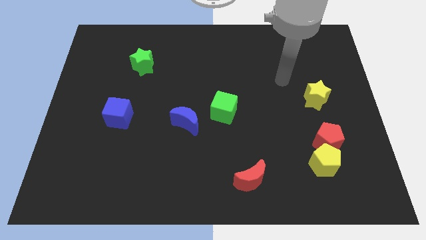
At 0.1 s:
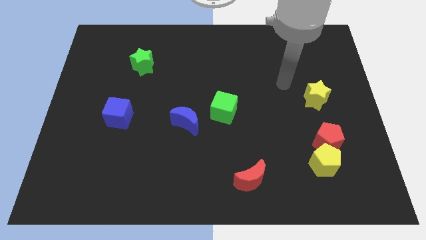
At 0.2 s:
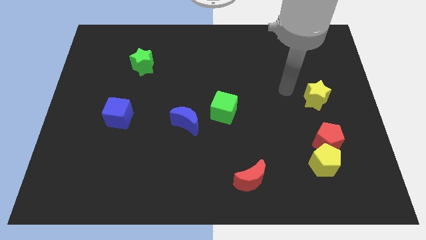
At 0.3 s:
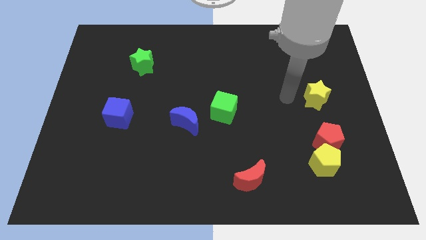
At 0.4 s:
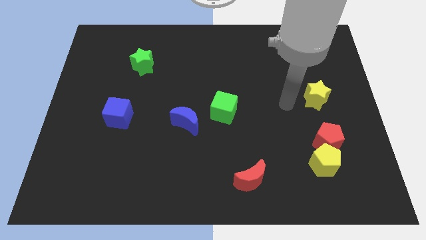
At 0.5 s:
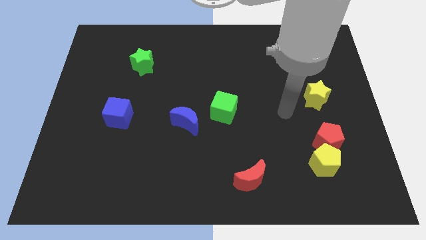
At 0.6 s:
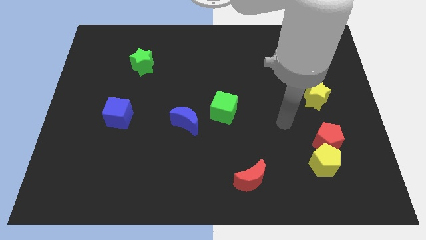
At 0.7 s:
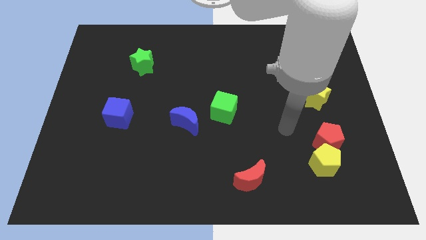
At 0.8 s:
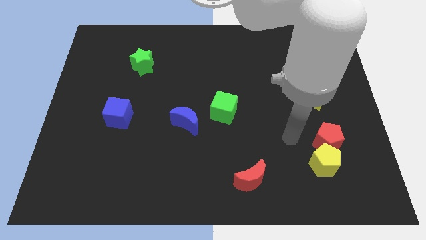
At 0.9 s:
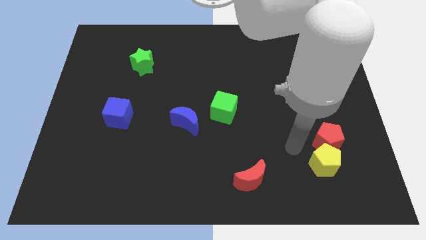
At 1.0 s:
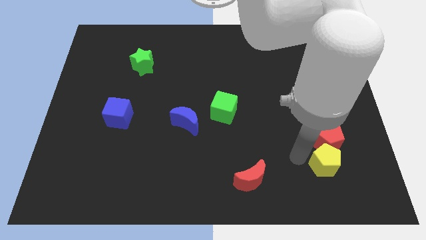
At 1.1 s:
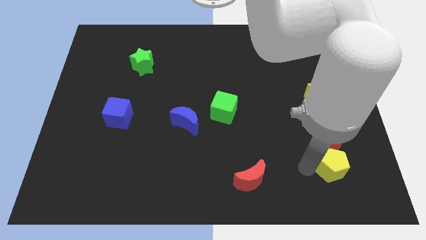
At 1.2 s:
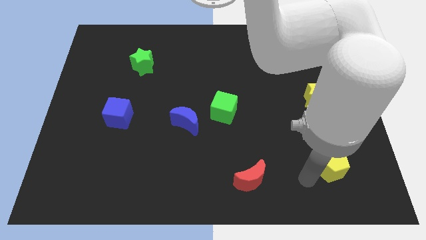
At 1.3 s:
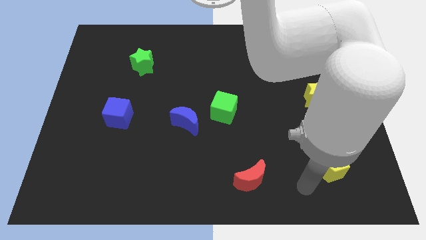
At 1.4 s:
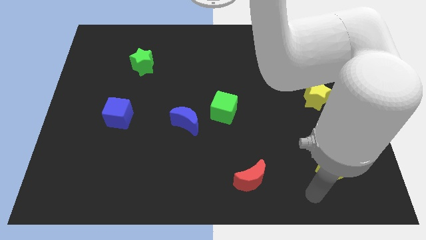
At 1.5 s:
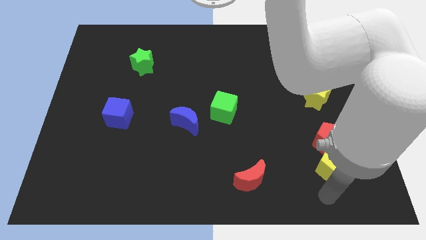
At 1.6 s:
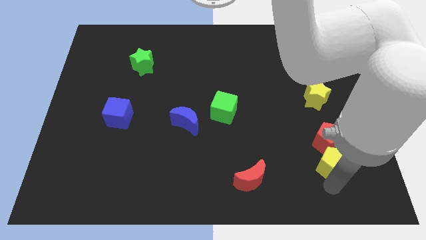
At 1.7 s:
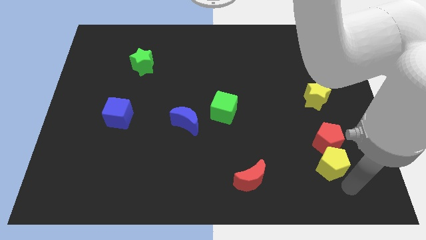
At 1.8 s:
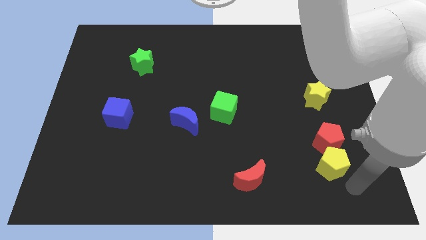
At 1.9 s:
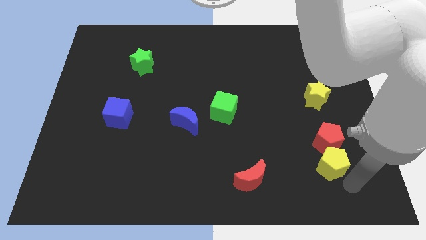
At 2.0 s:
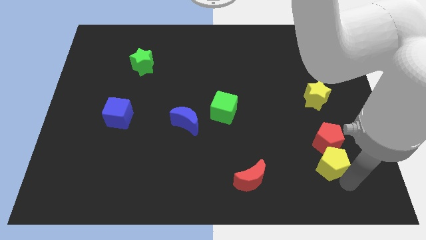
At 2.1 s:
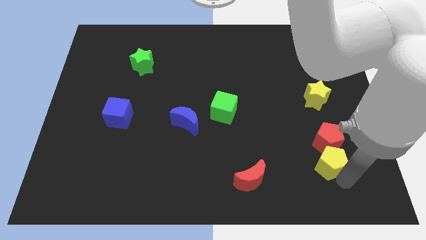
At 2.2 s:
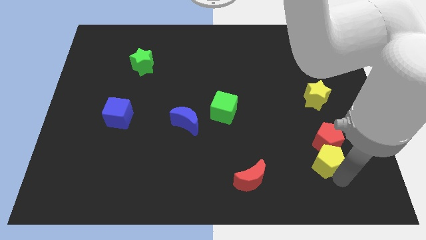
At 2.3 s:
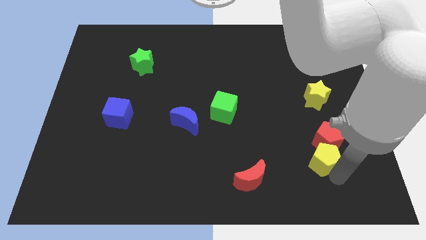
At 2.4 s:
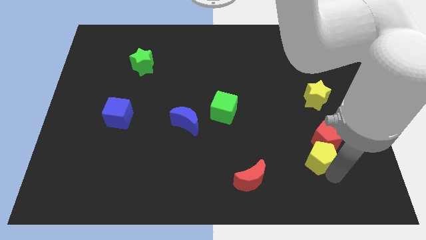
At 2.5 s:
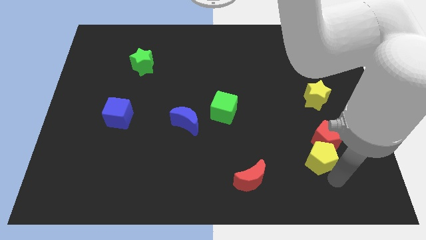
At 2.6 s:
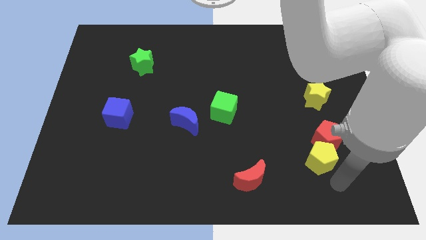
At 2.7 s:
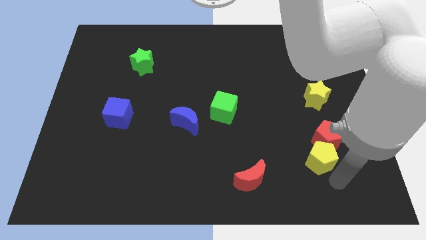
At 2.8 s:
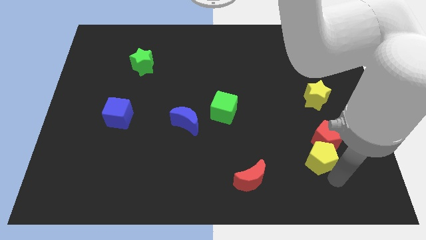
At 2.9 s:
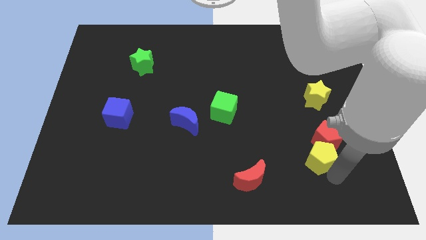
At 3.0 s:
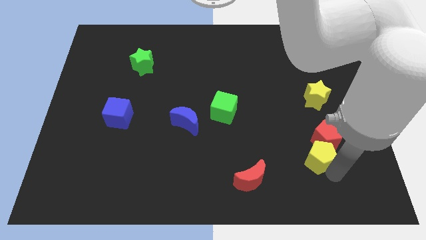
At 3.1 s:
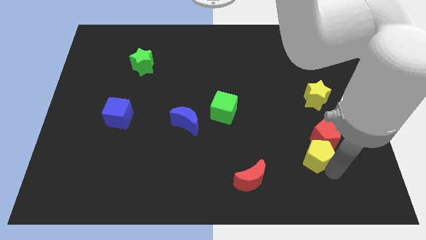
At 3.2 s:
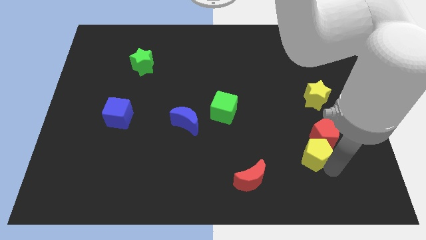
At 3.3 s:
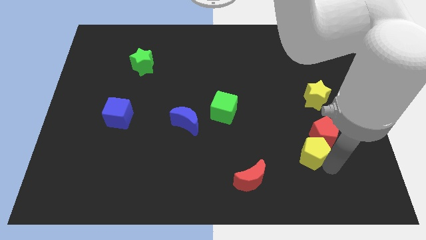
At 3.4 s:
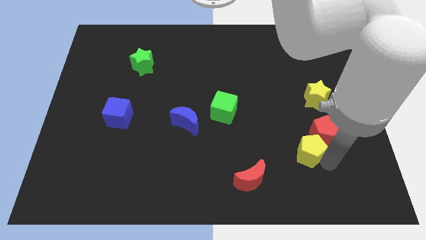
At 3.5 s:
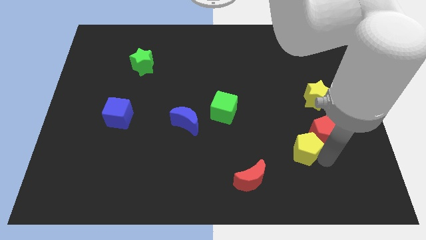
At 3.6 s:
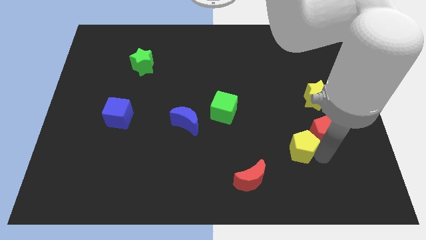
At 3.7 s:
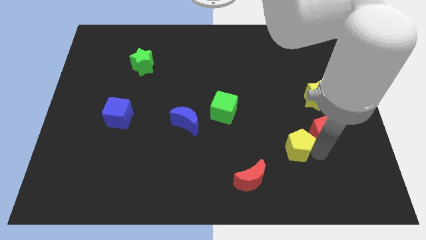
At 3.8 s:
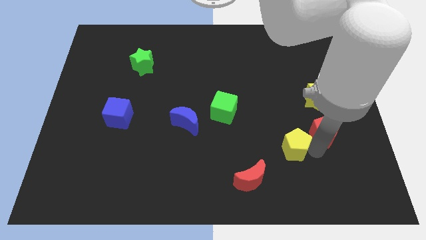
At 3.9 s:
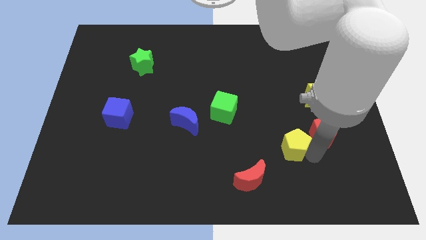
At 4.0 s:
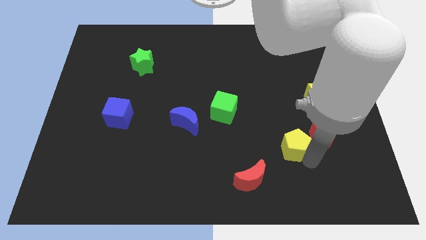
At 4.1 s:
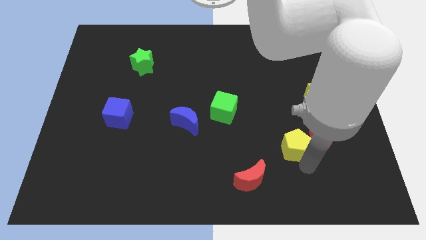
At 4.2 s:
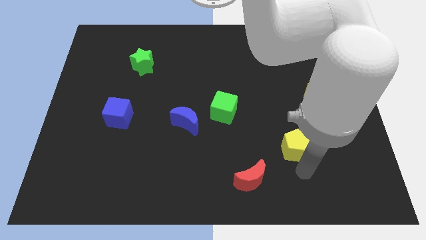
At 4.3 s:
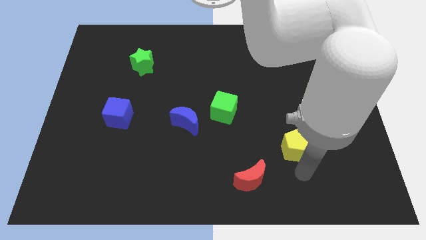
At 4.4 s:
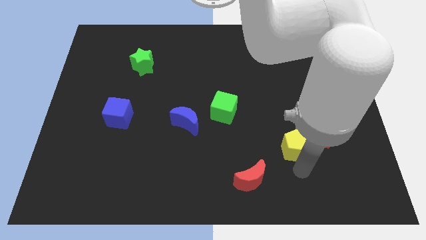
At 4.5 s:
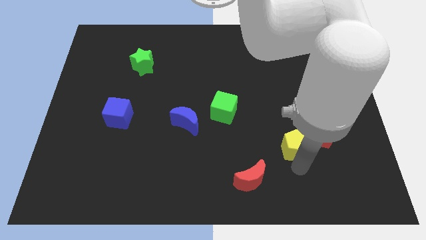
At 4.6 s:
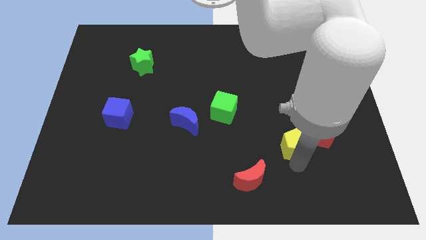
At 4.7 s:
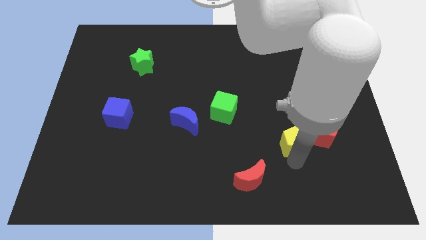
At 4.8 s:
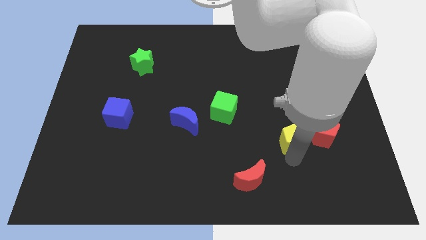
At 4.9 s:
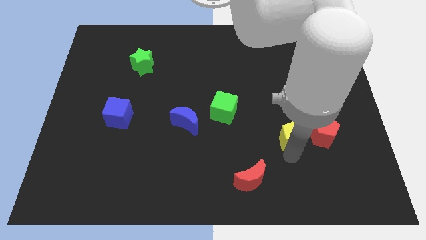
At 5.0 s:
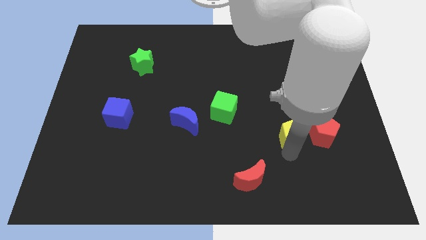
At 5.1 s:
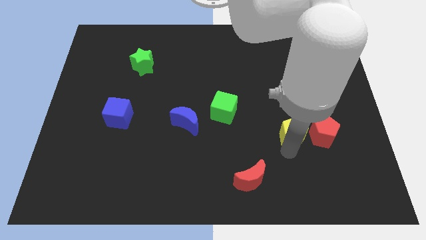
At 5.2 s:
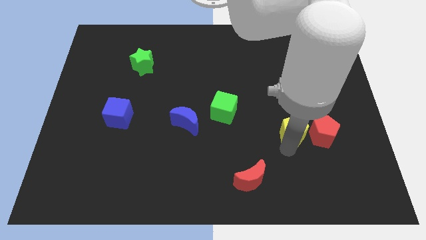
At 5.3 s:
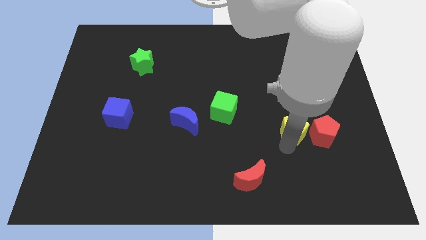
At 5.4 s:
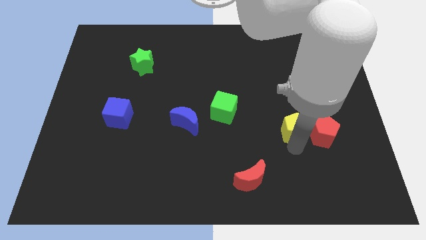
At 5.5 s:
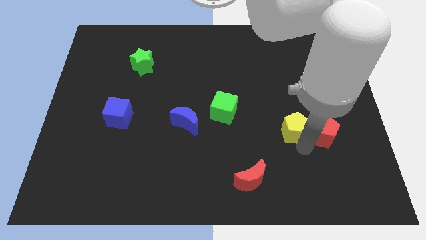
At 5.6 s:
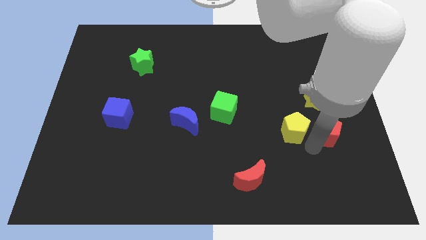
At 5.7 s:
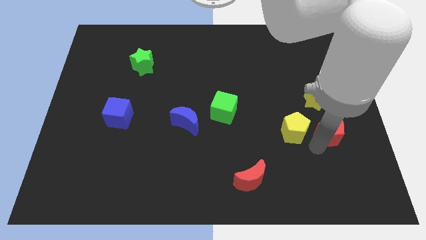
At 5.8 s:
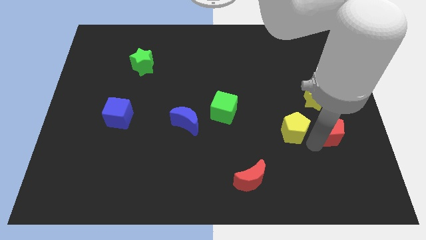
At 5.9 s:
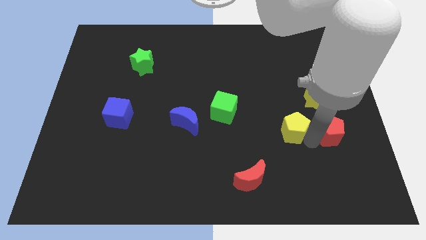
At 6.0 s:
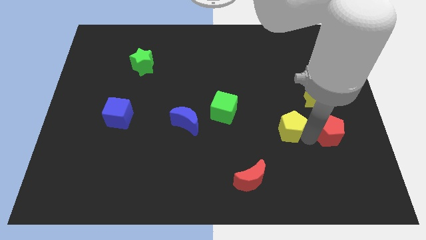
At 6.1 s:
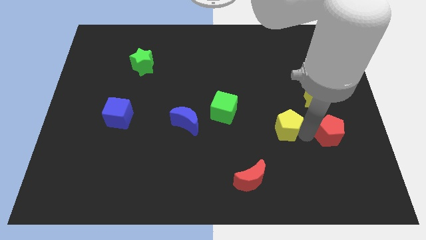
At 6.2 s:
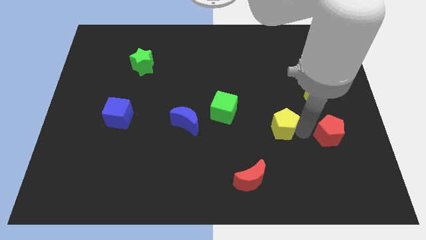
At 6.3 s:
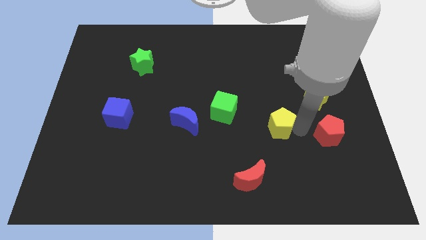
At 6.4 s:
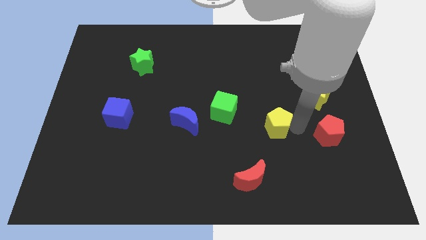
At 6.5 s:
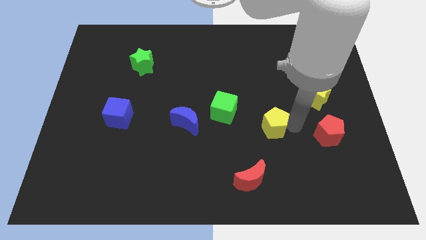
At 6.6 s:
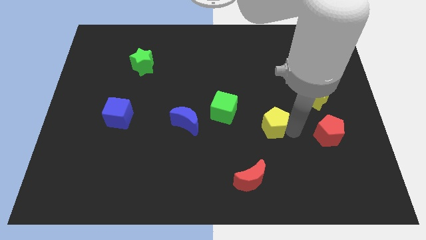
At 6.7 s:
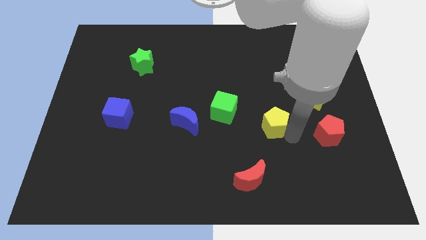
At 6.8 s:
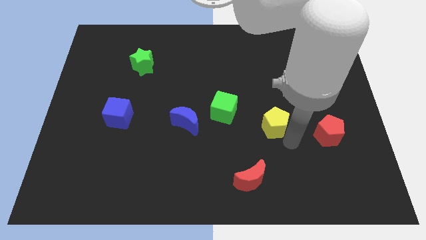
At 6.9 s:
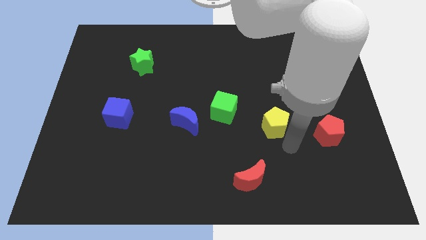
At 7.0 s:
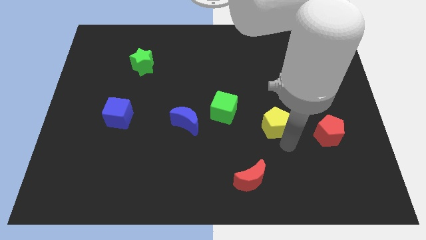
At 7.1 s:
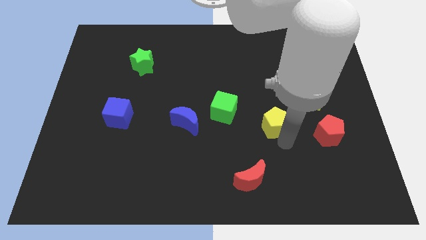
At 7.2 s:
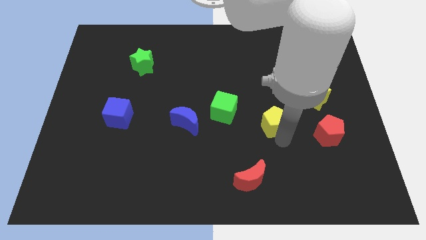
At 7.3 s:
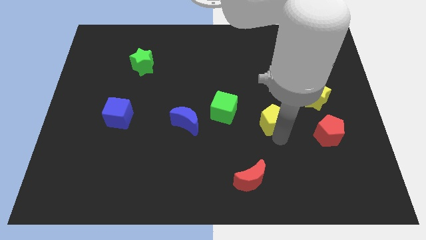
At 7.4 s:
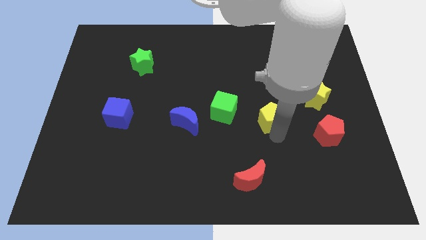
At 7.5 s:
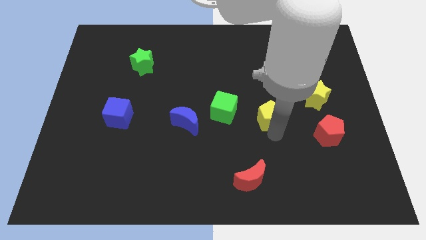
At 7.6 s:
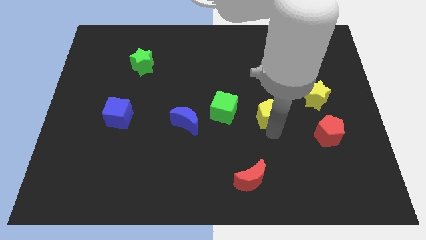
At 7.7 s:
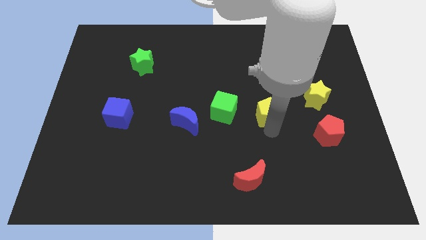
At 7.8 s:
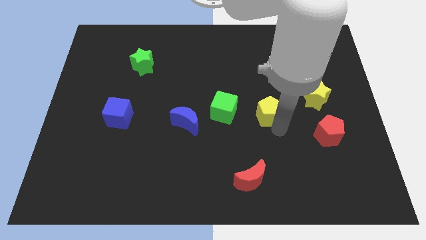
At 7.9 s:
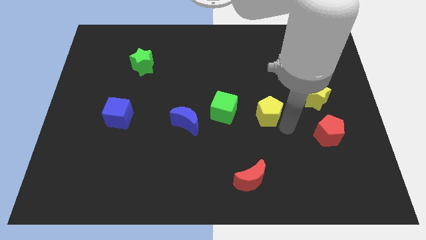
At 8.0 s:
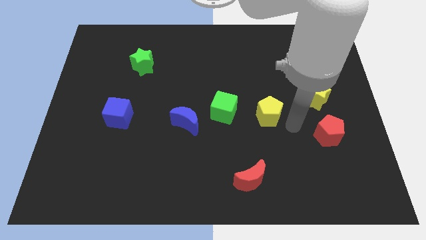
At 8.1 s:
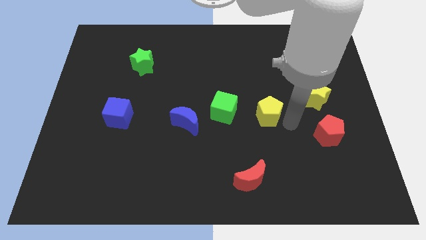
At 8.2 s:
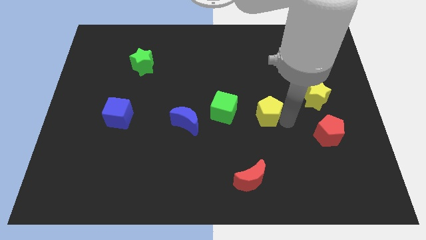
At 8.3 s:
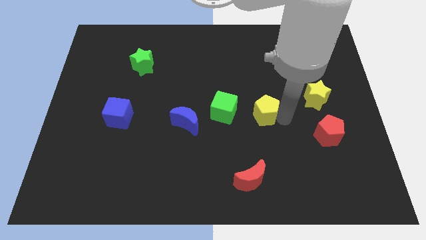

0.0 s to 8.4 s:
put the yellow pentagon to the center of the board
